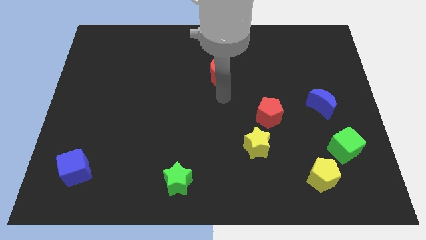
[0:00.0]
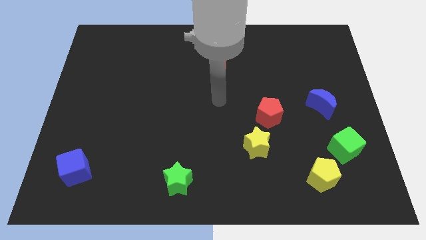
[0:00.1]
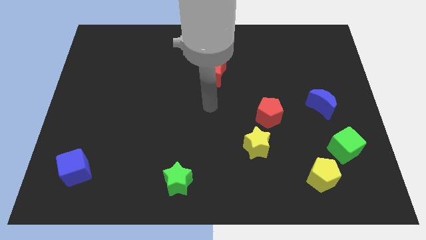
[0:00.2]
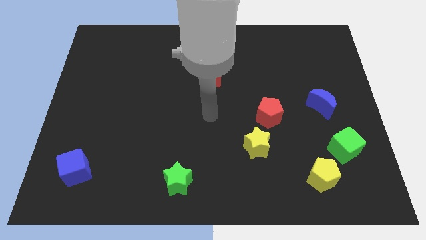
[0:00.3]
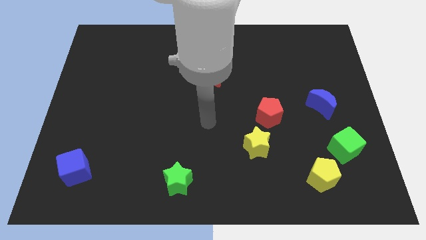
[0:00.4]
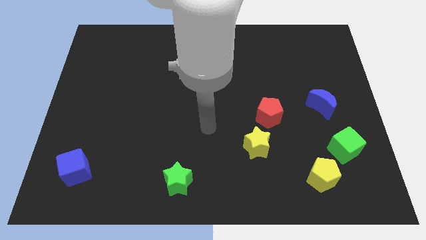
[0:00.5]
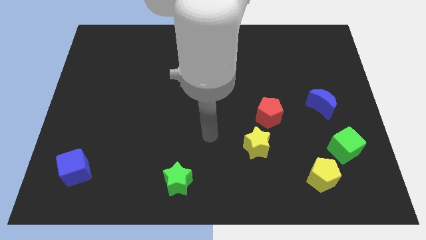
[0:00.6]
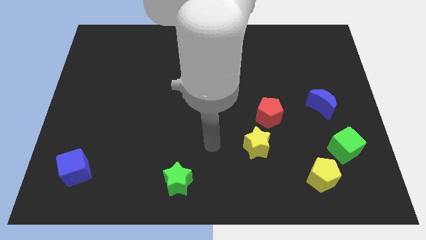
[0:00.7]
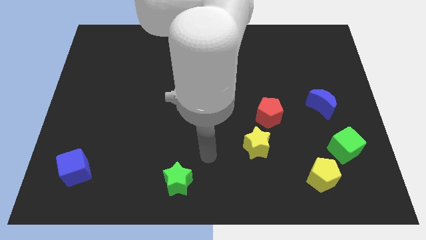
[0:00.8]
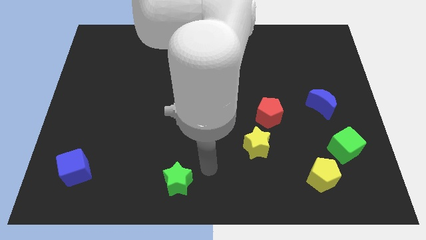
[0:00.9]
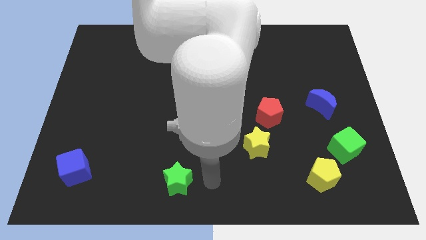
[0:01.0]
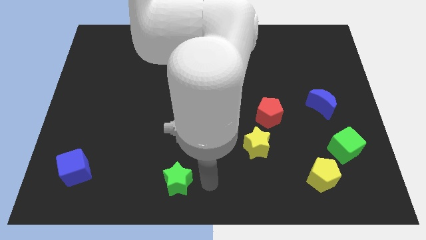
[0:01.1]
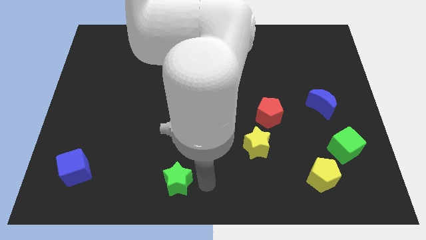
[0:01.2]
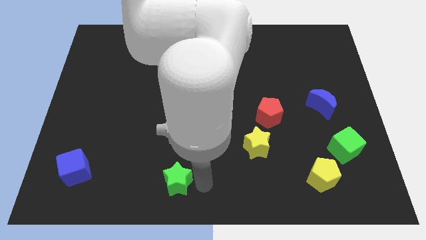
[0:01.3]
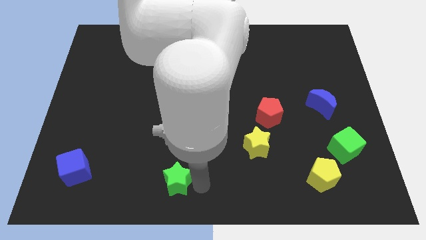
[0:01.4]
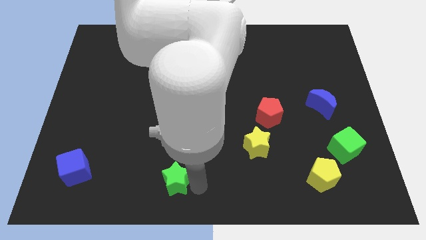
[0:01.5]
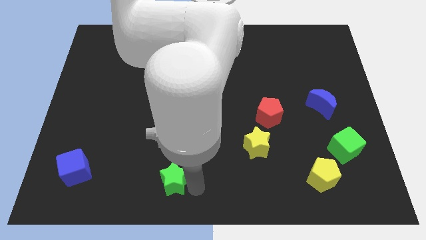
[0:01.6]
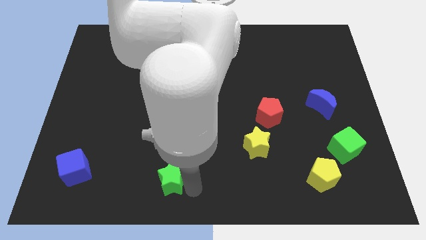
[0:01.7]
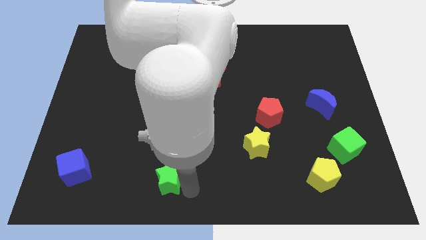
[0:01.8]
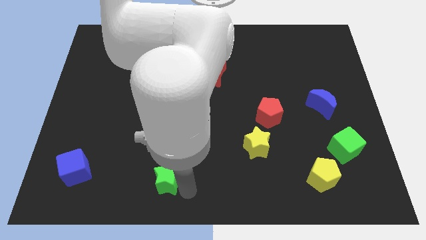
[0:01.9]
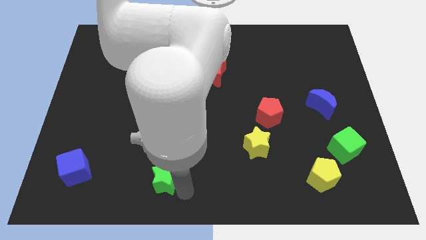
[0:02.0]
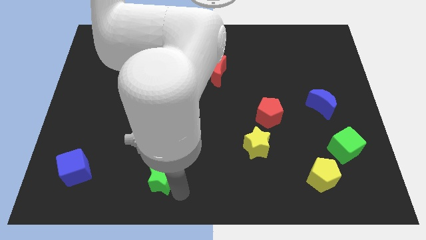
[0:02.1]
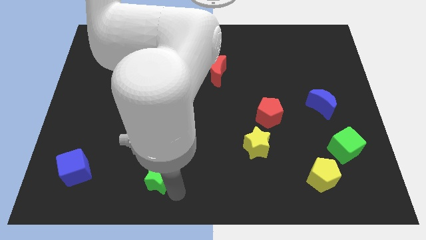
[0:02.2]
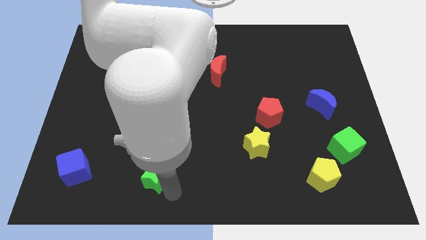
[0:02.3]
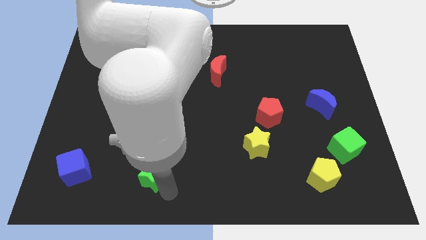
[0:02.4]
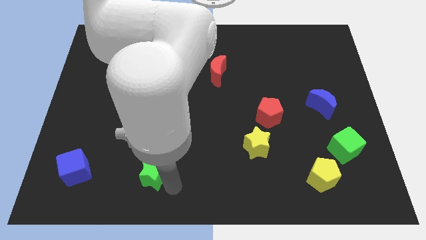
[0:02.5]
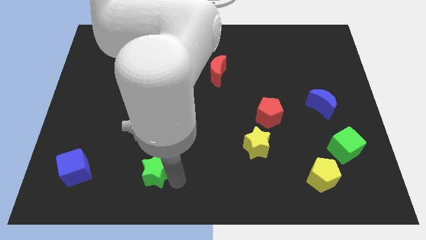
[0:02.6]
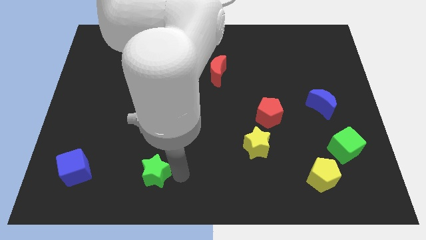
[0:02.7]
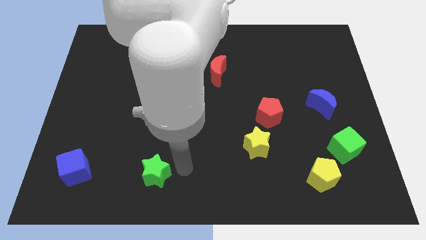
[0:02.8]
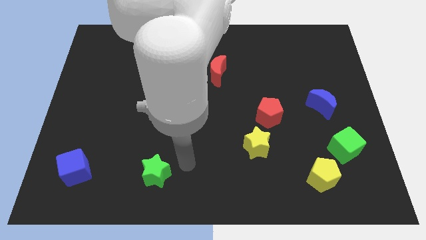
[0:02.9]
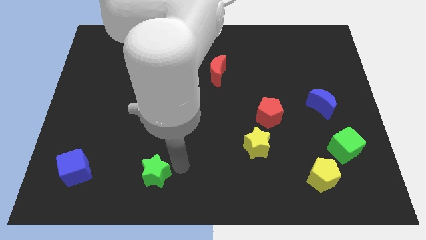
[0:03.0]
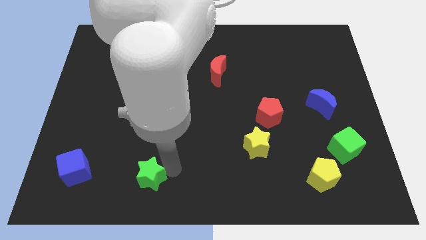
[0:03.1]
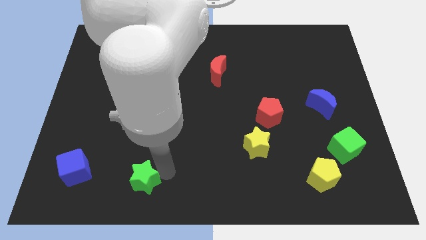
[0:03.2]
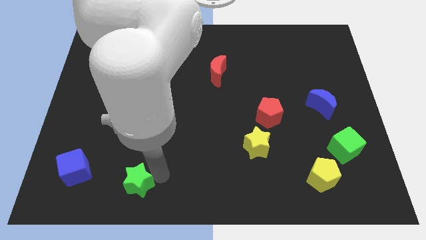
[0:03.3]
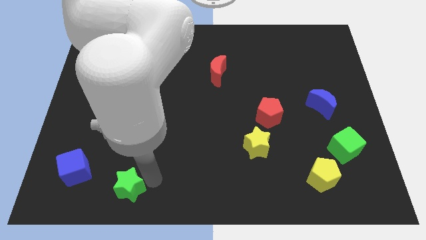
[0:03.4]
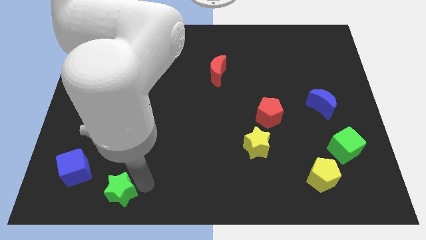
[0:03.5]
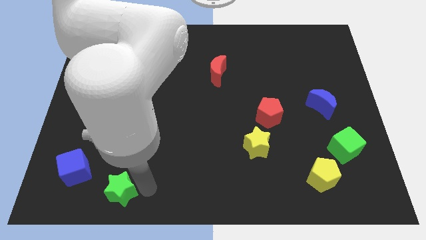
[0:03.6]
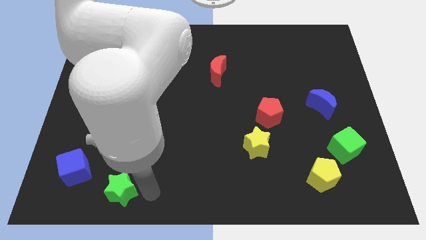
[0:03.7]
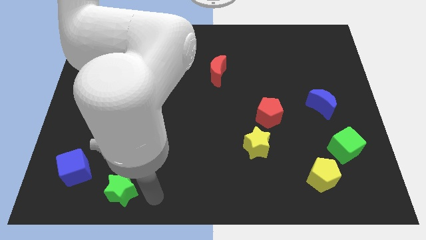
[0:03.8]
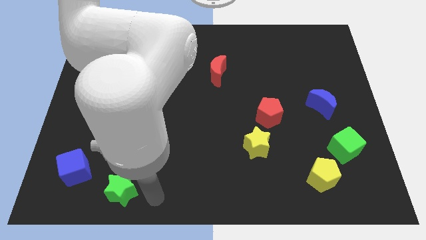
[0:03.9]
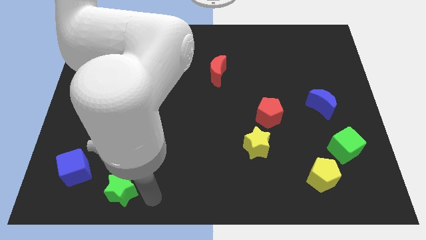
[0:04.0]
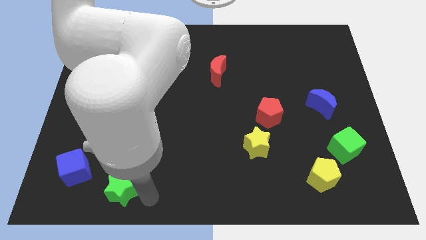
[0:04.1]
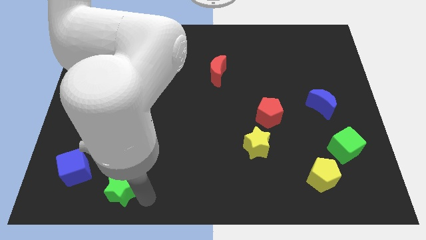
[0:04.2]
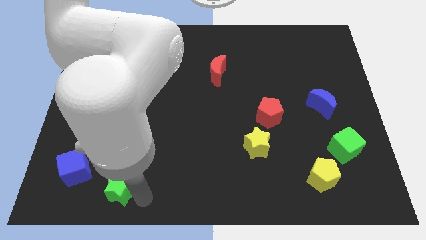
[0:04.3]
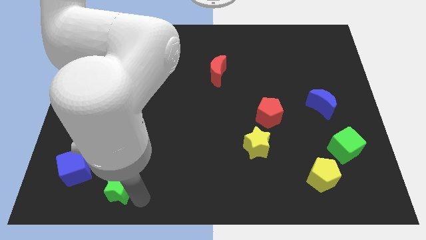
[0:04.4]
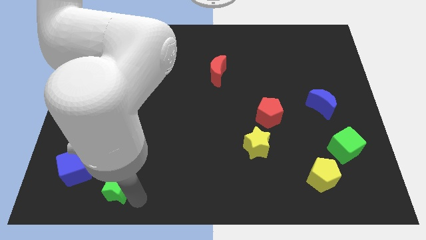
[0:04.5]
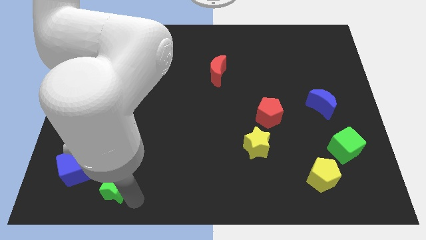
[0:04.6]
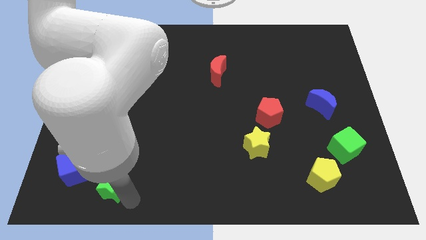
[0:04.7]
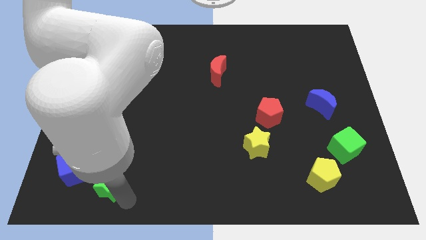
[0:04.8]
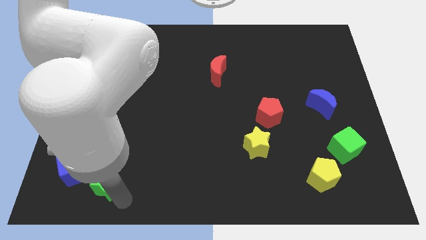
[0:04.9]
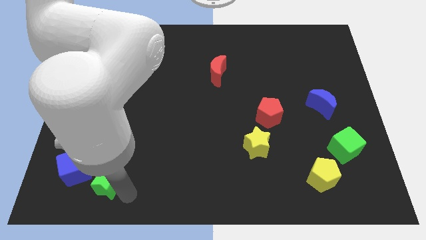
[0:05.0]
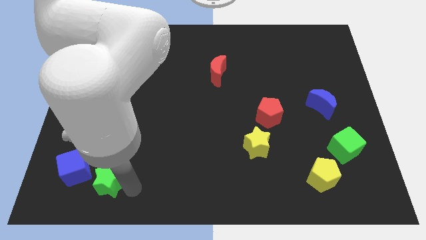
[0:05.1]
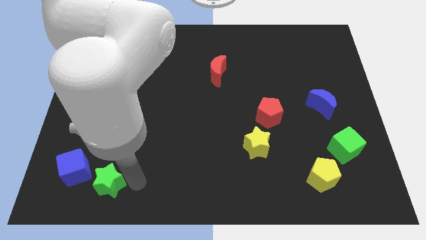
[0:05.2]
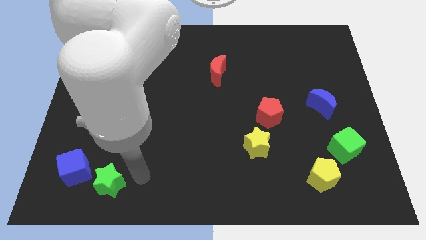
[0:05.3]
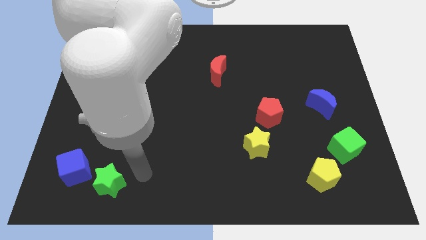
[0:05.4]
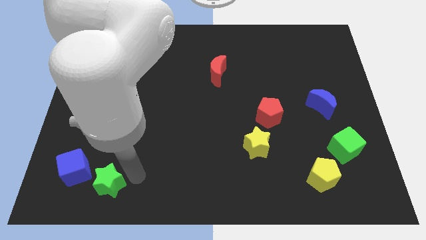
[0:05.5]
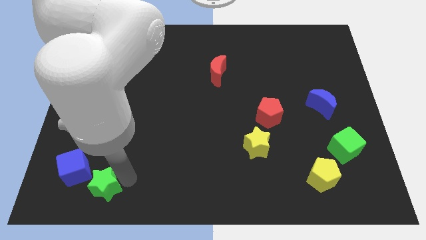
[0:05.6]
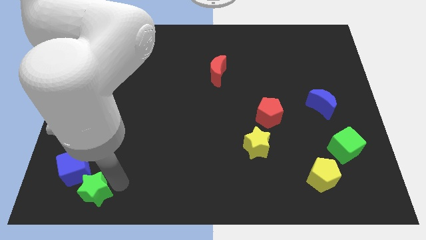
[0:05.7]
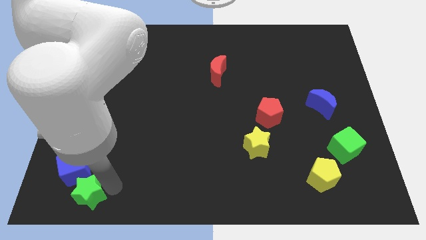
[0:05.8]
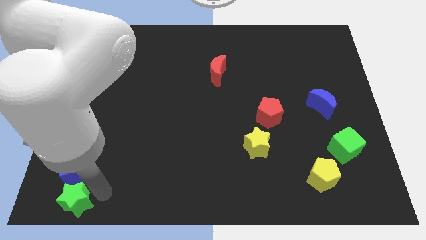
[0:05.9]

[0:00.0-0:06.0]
slide the green star to the lower left corner
